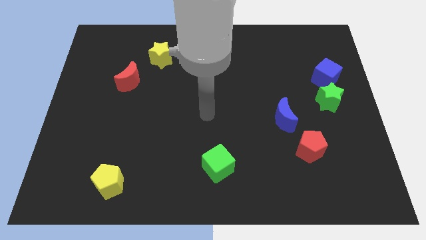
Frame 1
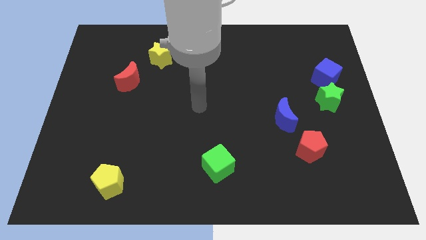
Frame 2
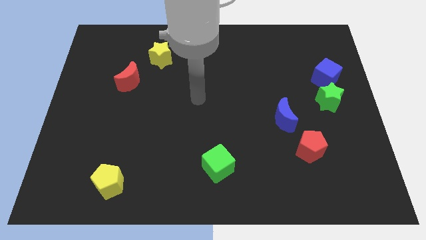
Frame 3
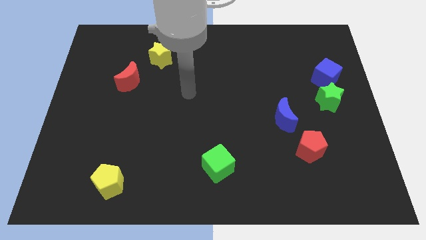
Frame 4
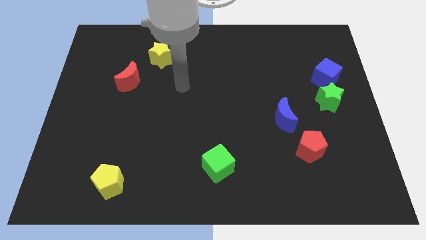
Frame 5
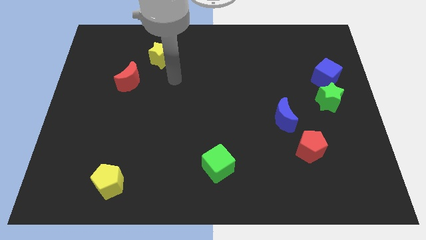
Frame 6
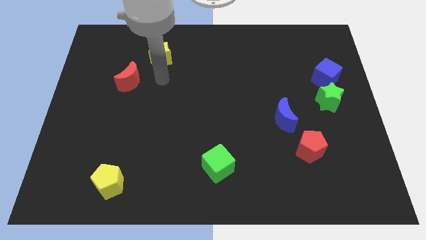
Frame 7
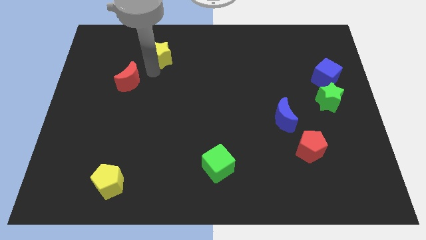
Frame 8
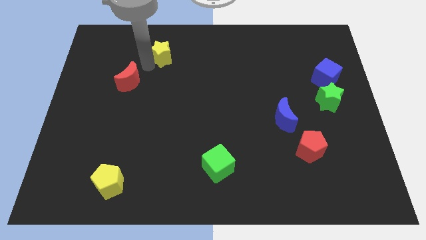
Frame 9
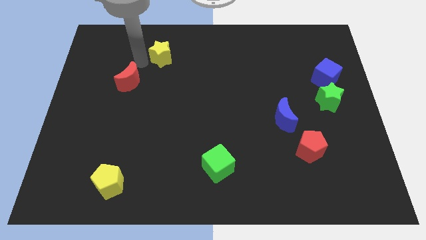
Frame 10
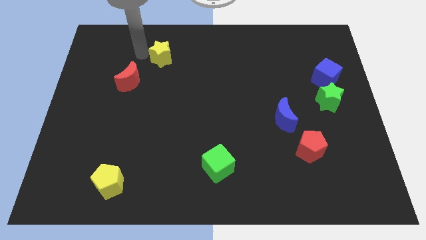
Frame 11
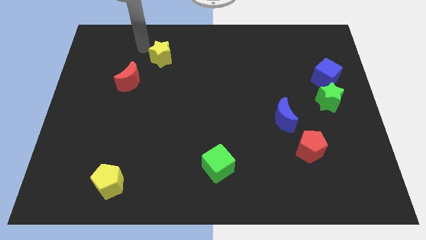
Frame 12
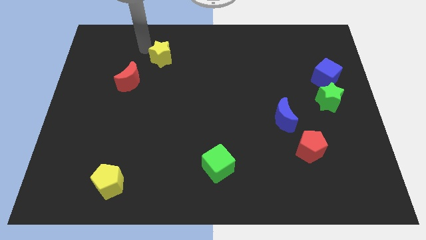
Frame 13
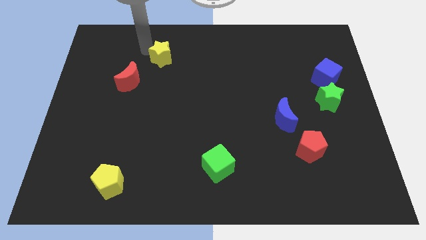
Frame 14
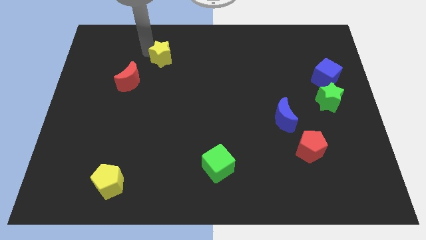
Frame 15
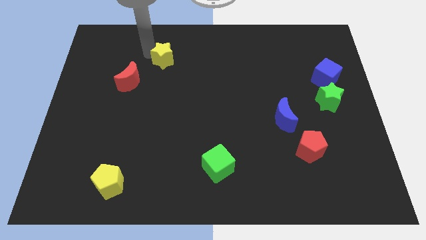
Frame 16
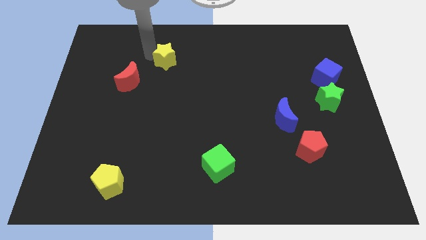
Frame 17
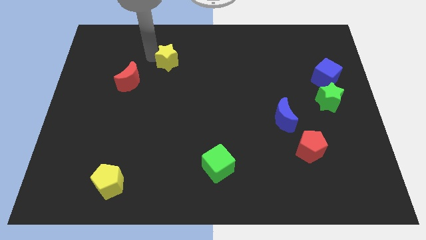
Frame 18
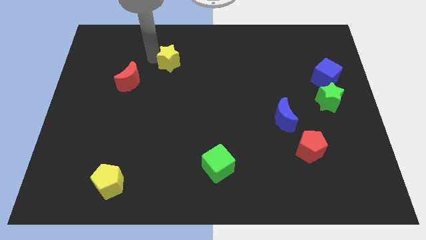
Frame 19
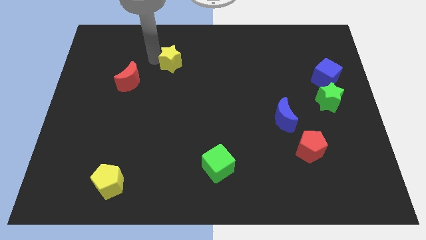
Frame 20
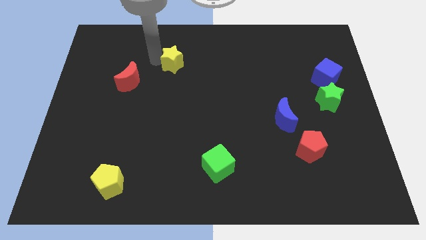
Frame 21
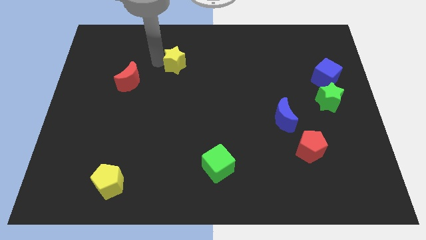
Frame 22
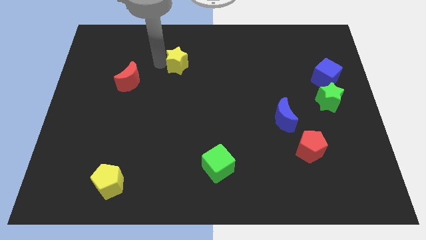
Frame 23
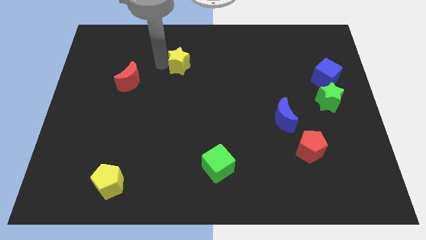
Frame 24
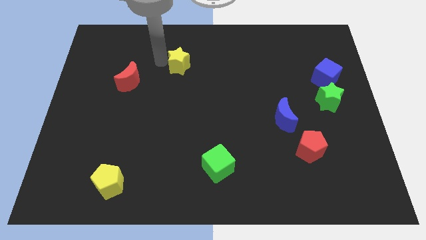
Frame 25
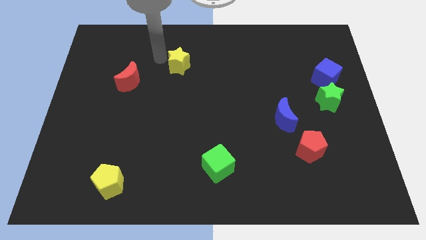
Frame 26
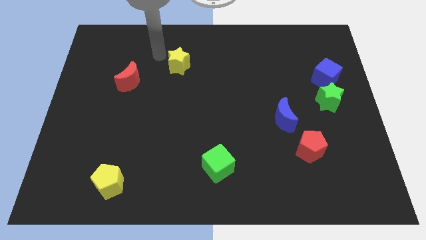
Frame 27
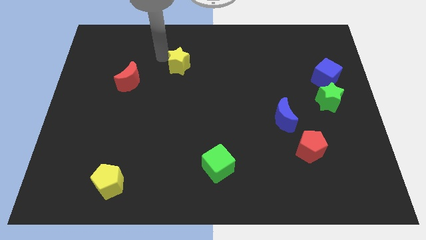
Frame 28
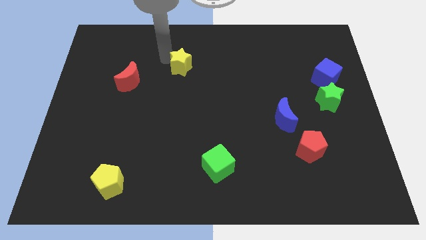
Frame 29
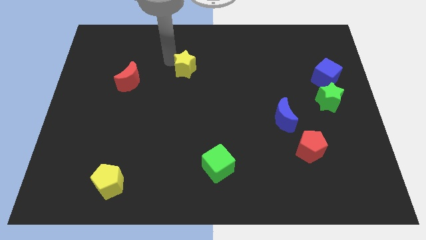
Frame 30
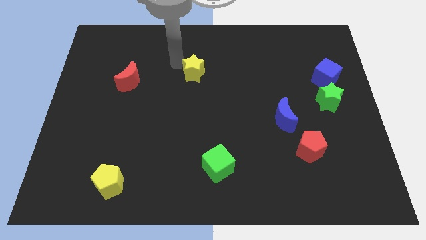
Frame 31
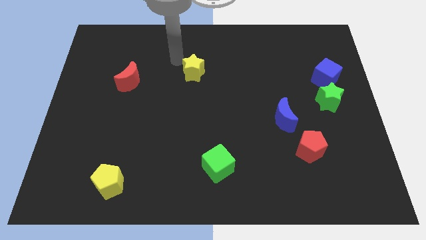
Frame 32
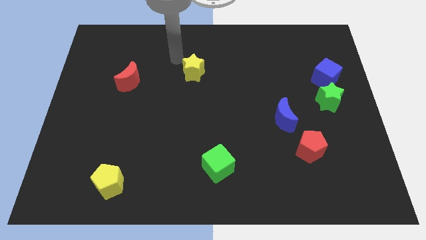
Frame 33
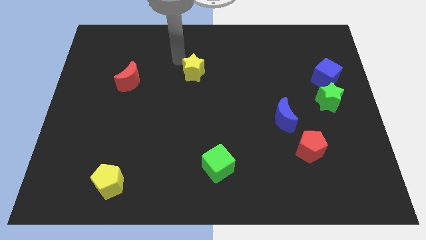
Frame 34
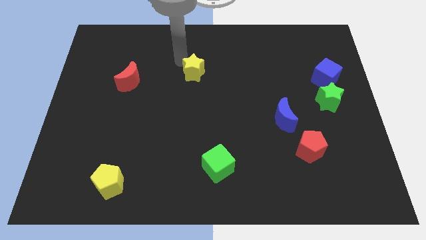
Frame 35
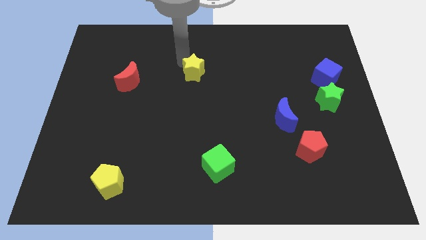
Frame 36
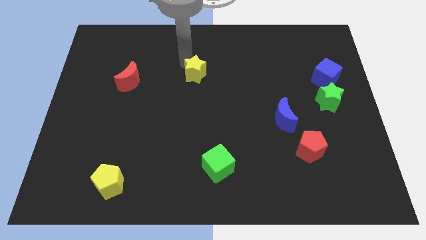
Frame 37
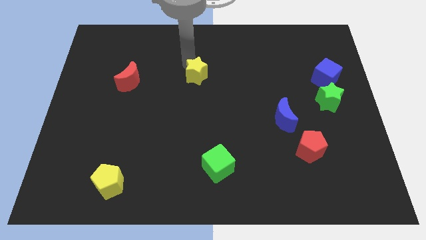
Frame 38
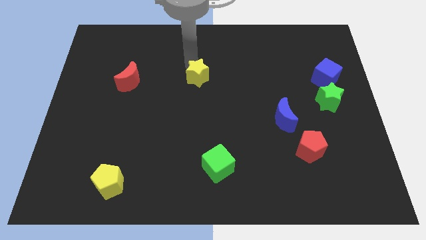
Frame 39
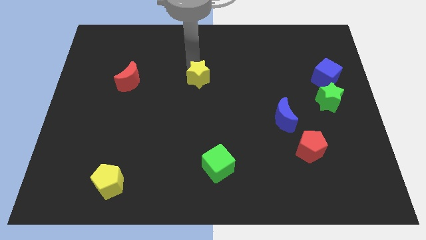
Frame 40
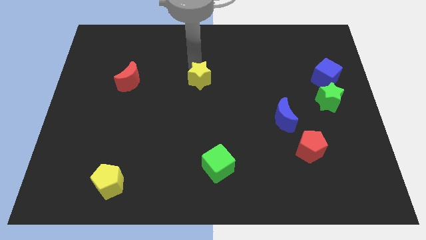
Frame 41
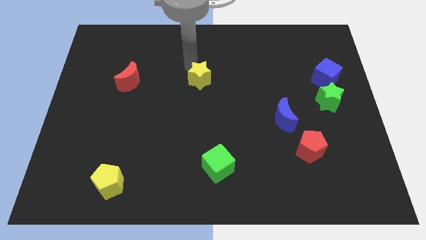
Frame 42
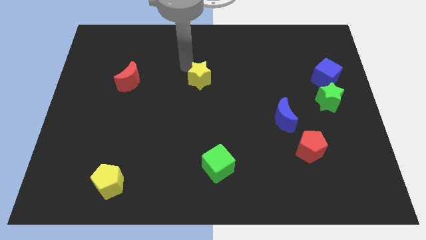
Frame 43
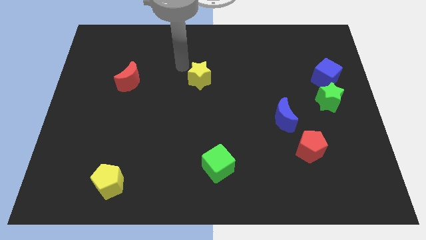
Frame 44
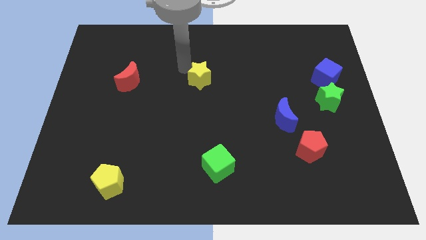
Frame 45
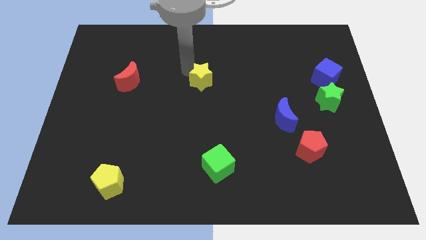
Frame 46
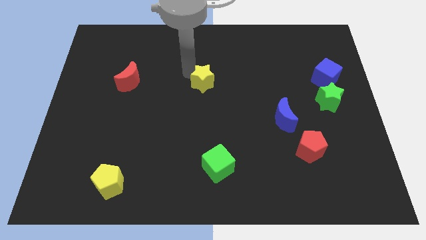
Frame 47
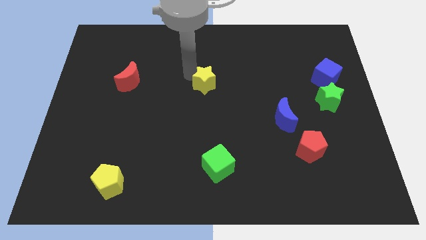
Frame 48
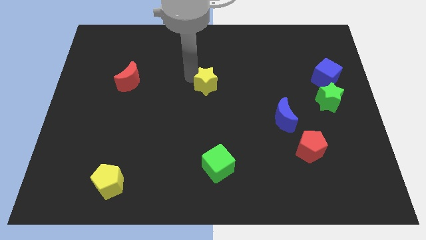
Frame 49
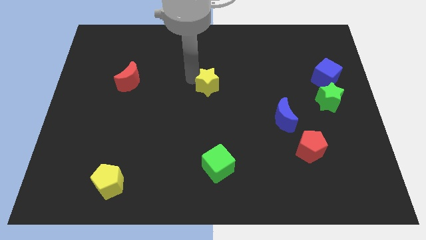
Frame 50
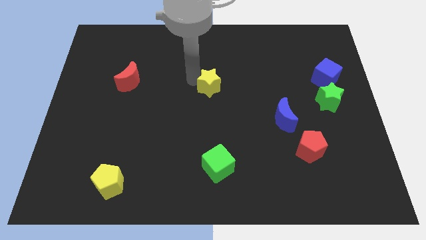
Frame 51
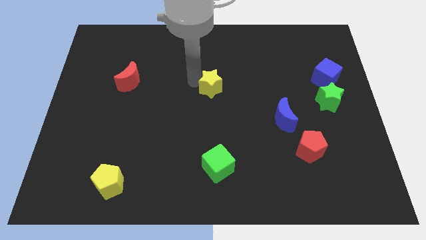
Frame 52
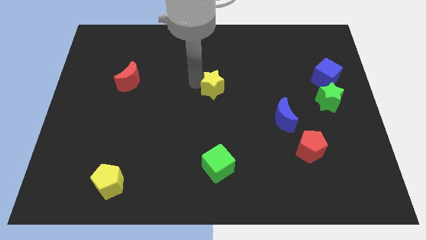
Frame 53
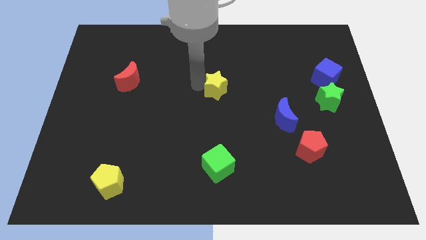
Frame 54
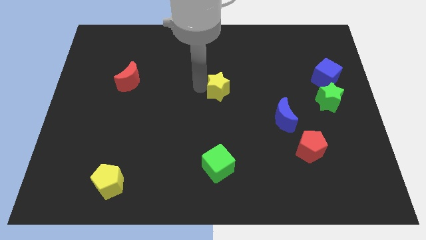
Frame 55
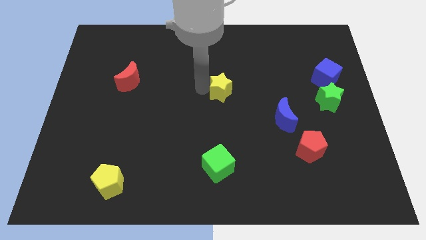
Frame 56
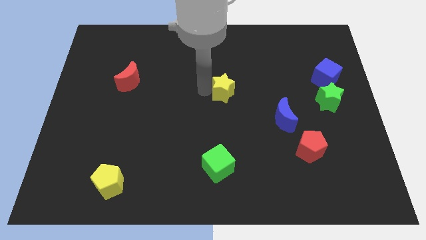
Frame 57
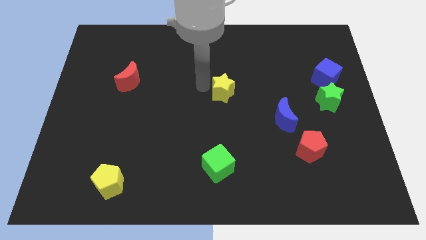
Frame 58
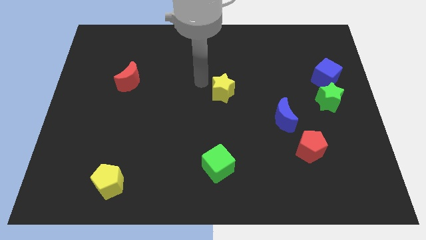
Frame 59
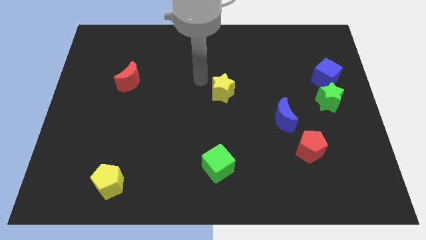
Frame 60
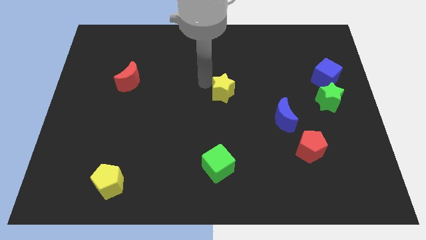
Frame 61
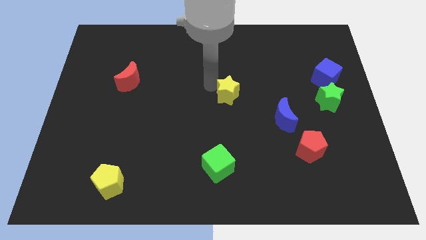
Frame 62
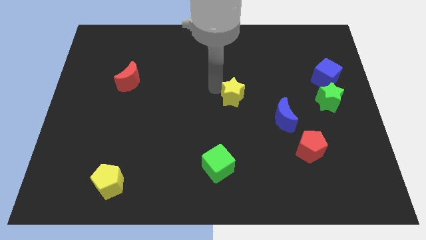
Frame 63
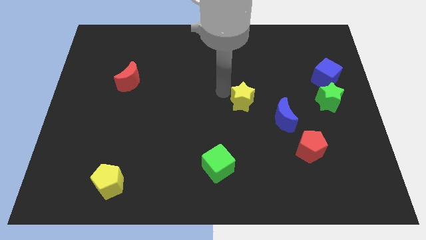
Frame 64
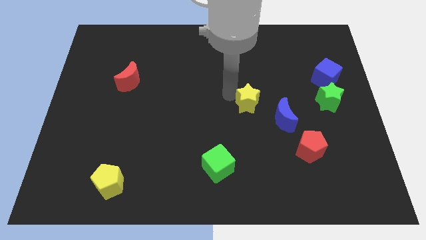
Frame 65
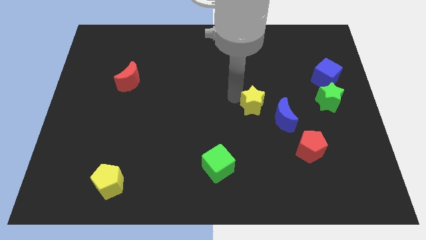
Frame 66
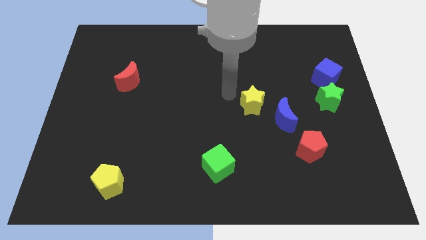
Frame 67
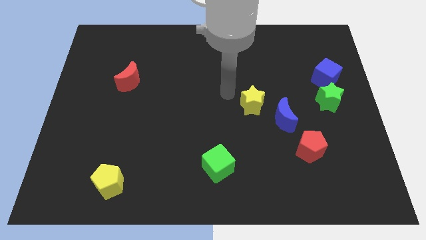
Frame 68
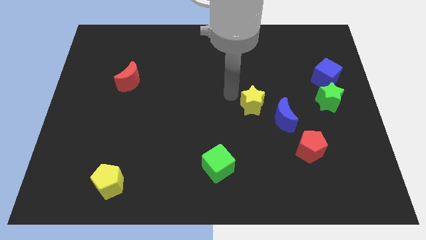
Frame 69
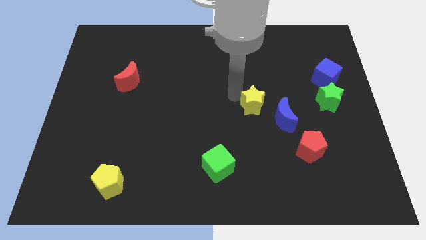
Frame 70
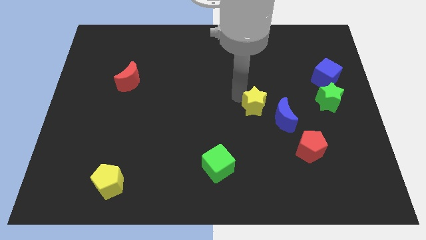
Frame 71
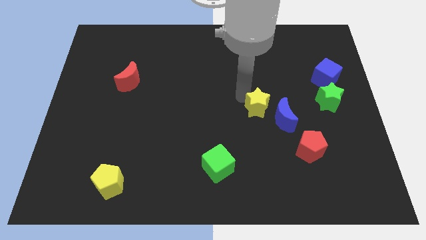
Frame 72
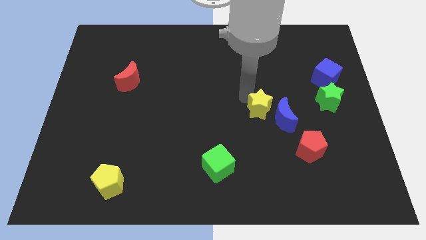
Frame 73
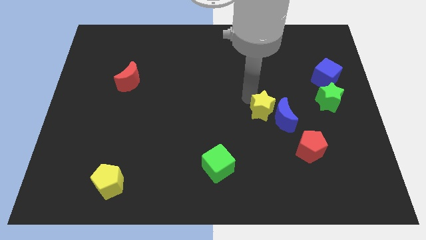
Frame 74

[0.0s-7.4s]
push the yellow star towards the blue moon

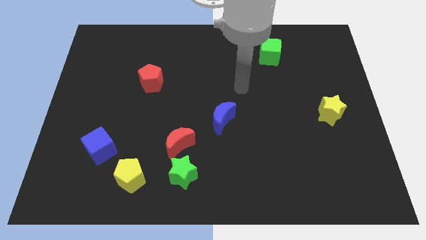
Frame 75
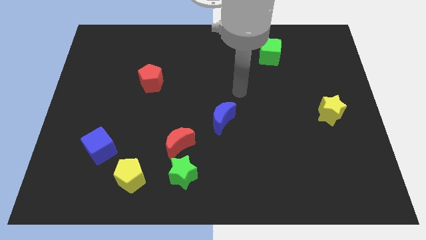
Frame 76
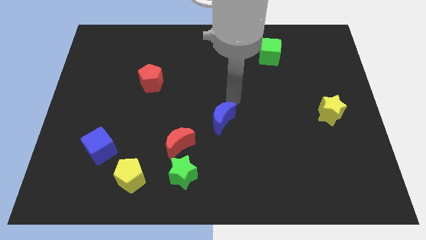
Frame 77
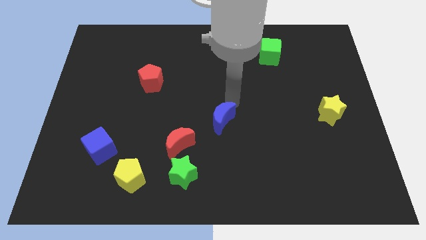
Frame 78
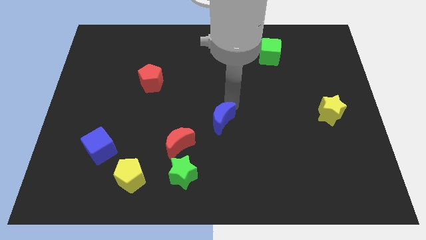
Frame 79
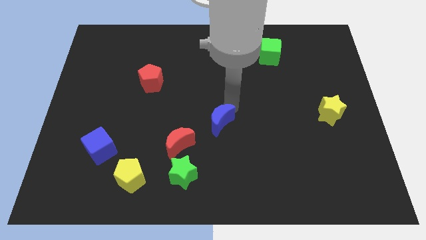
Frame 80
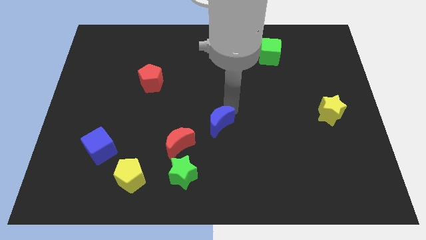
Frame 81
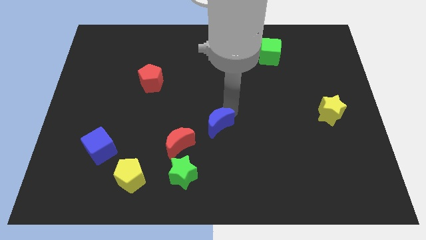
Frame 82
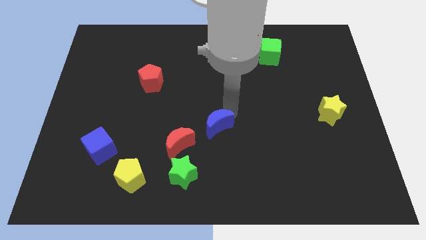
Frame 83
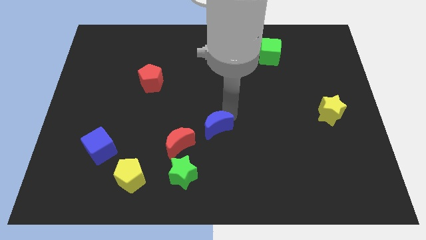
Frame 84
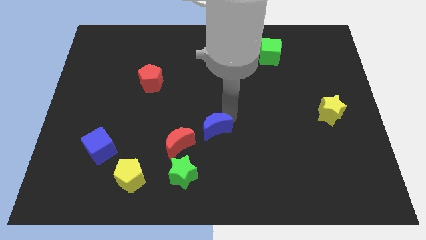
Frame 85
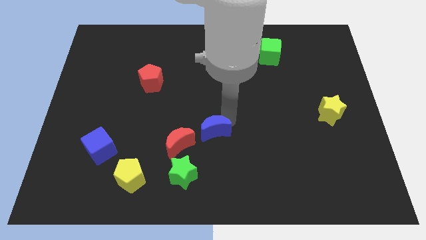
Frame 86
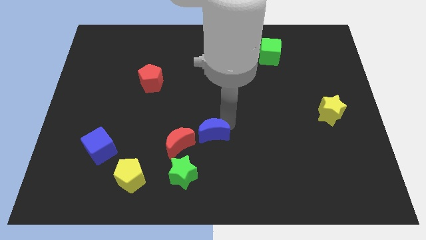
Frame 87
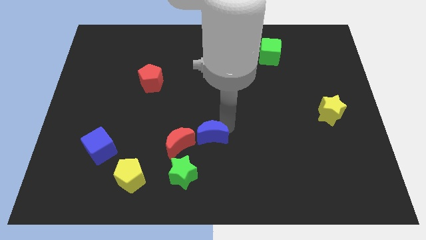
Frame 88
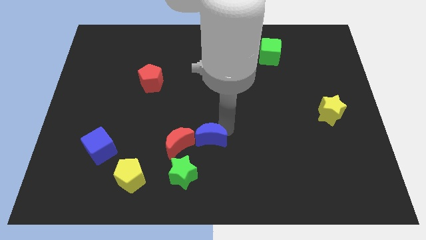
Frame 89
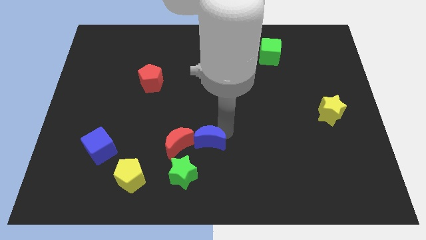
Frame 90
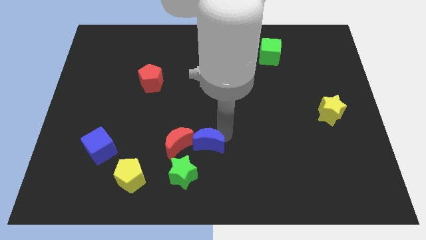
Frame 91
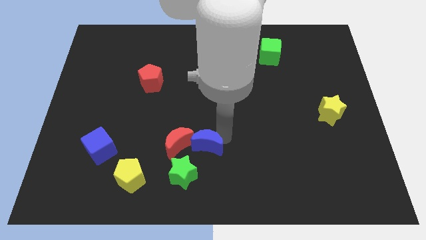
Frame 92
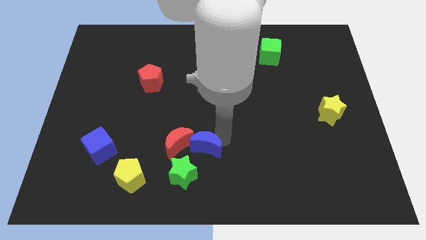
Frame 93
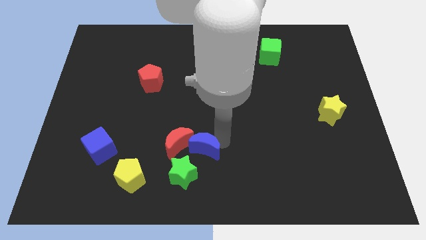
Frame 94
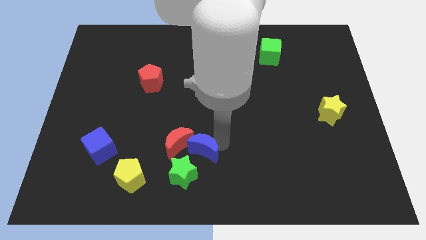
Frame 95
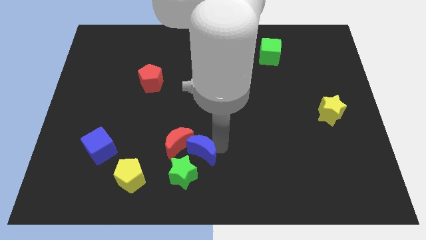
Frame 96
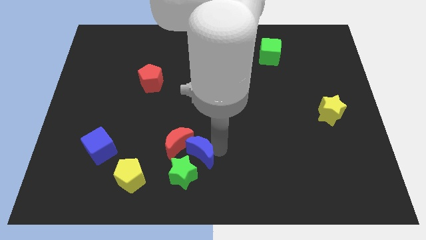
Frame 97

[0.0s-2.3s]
put the blue moon to the green star
